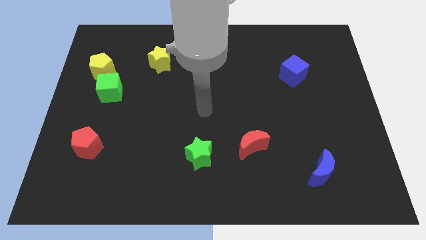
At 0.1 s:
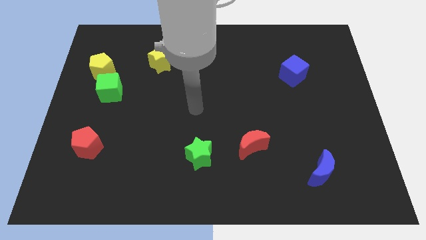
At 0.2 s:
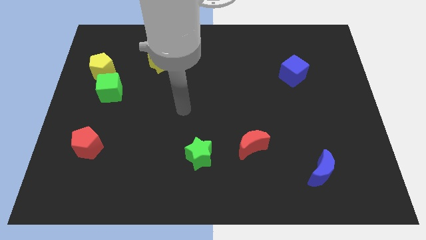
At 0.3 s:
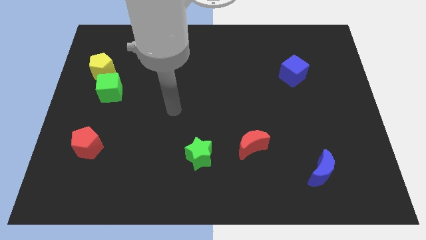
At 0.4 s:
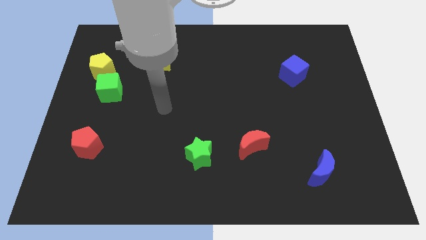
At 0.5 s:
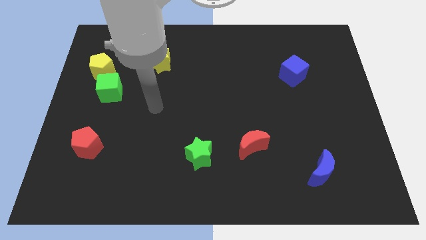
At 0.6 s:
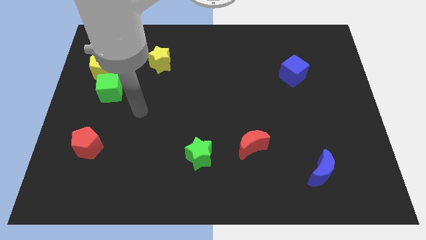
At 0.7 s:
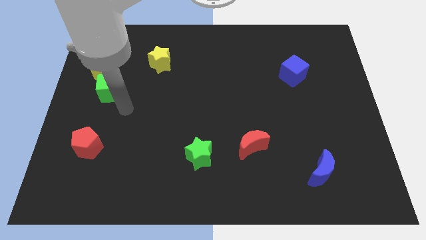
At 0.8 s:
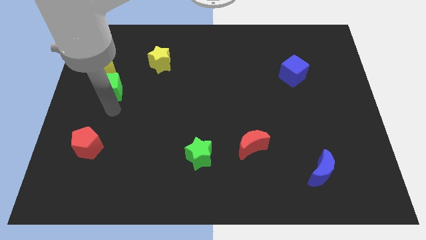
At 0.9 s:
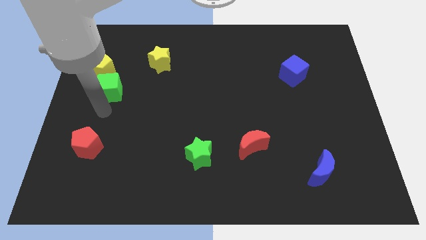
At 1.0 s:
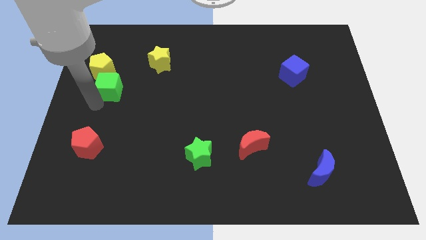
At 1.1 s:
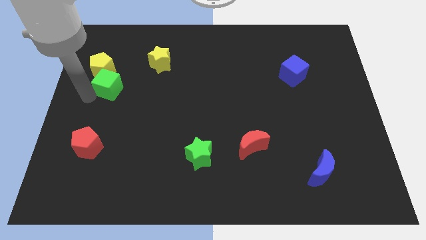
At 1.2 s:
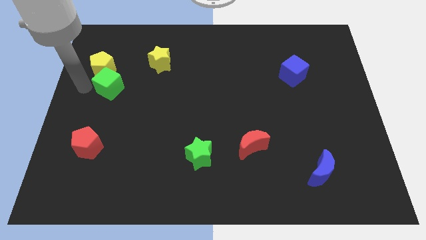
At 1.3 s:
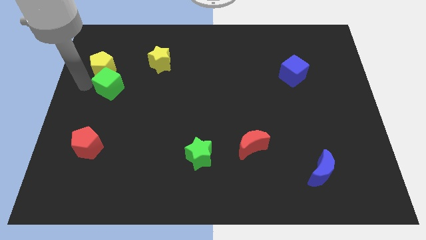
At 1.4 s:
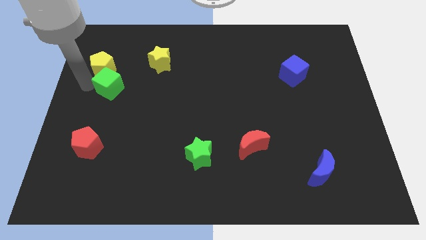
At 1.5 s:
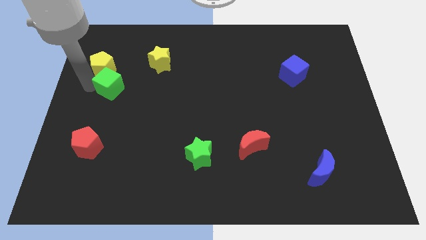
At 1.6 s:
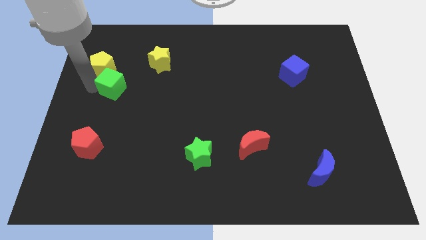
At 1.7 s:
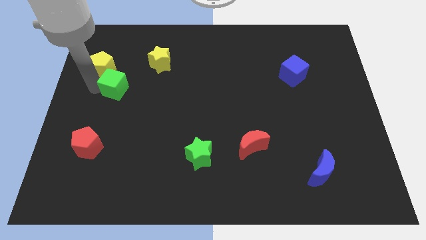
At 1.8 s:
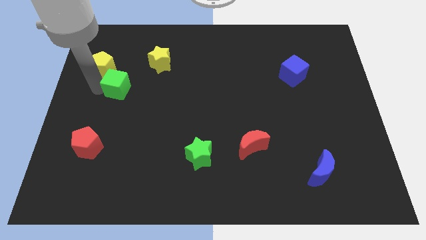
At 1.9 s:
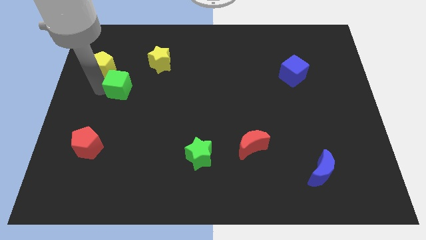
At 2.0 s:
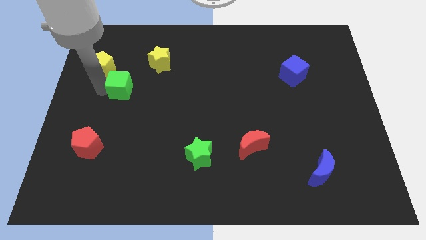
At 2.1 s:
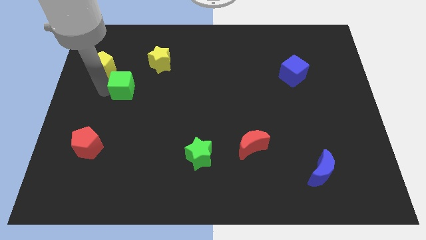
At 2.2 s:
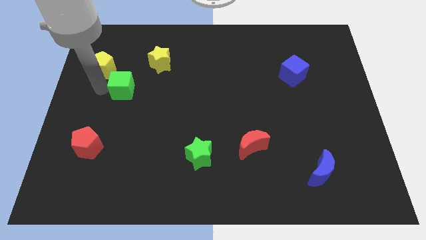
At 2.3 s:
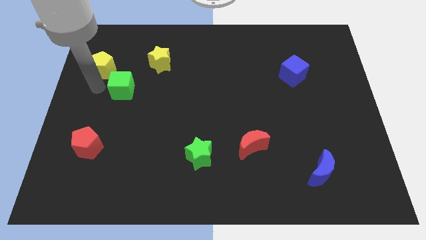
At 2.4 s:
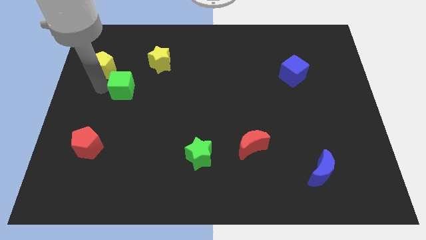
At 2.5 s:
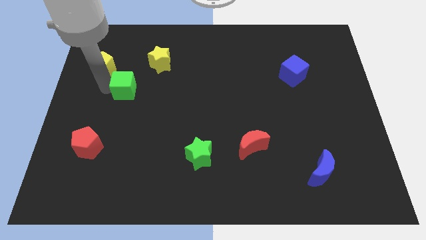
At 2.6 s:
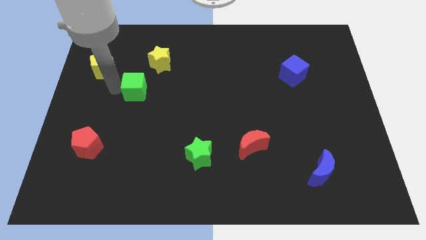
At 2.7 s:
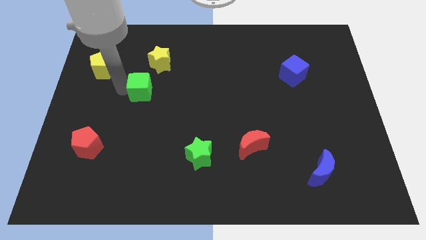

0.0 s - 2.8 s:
push the green cube to the right slightly

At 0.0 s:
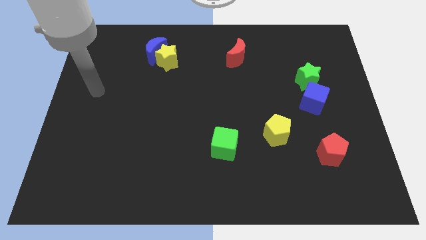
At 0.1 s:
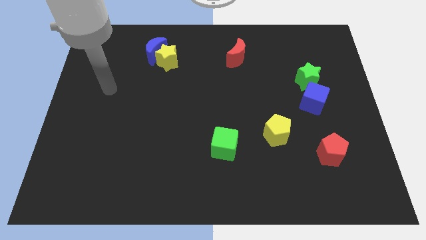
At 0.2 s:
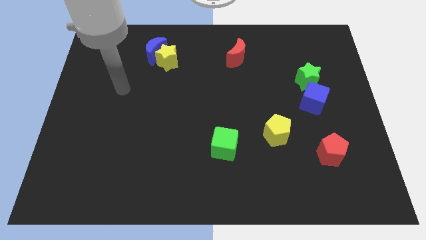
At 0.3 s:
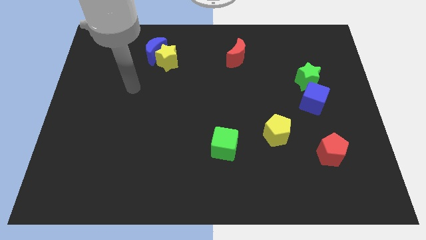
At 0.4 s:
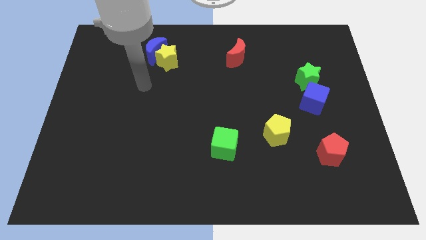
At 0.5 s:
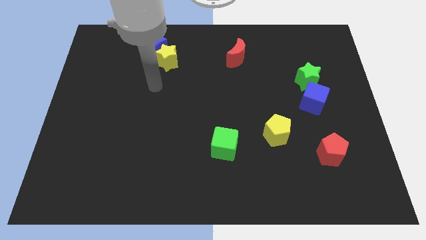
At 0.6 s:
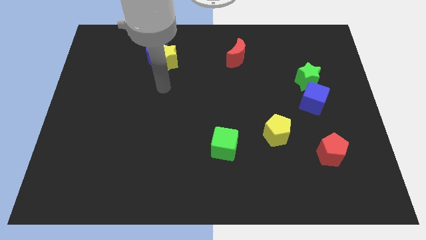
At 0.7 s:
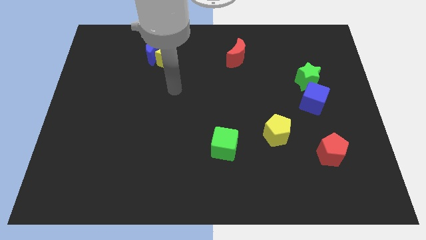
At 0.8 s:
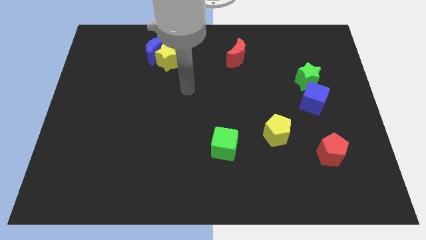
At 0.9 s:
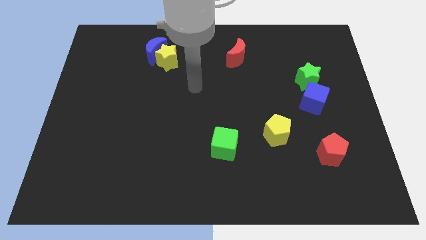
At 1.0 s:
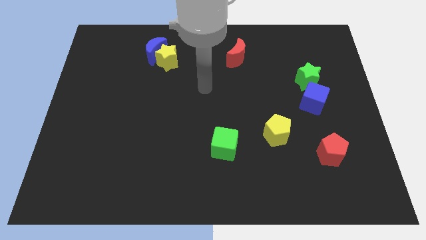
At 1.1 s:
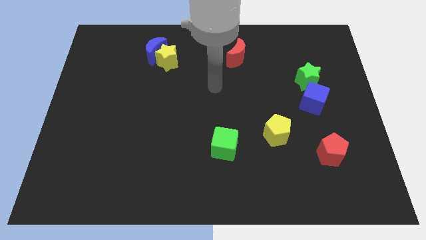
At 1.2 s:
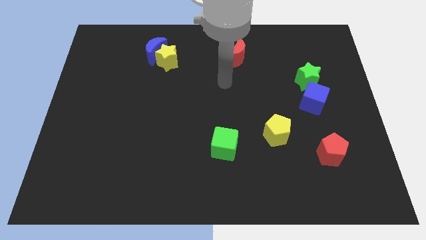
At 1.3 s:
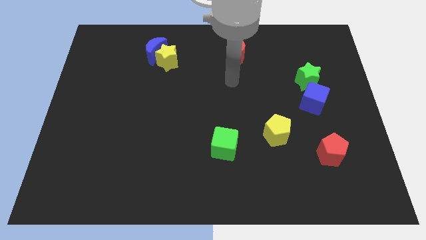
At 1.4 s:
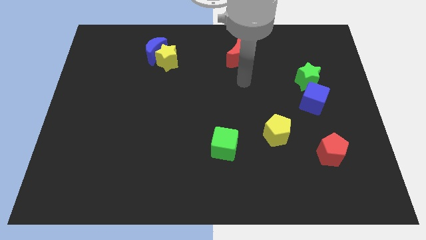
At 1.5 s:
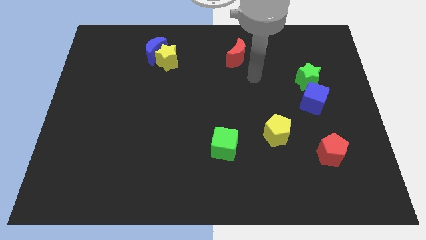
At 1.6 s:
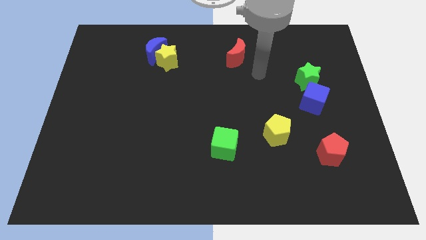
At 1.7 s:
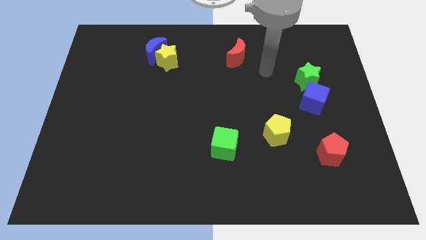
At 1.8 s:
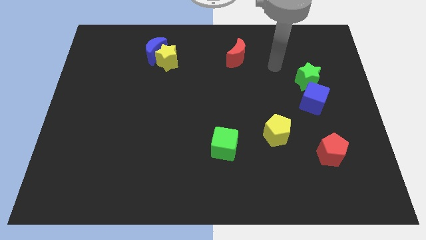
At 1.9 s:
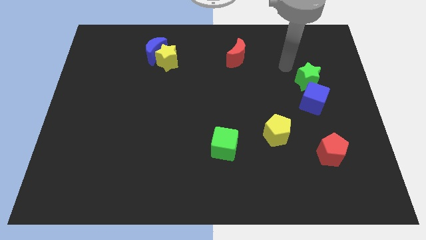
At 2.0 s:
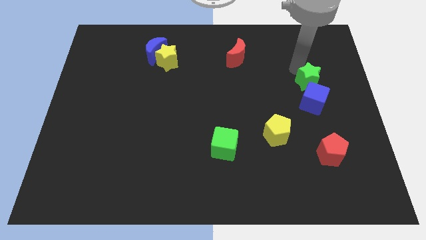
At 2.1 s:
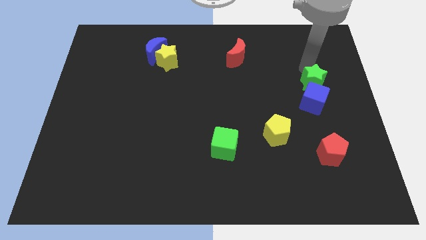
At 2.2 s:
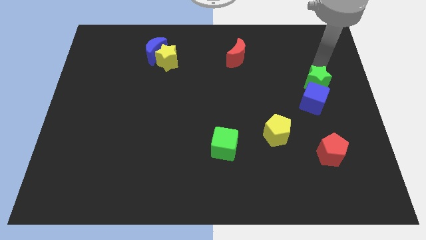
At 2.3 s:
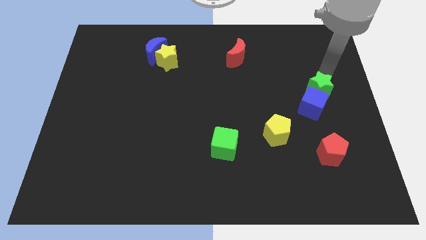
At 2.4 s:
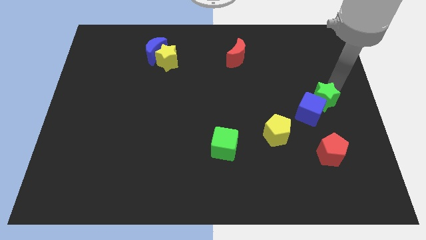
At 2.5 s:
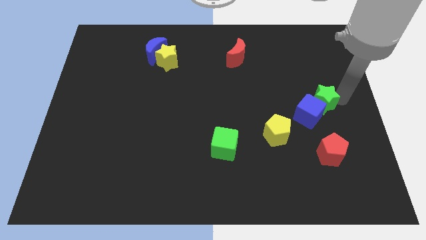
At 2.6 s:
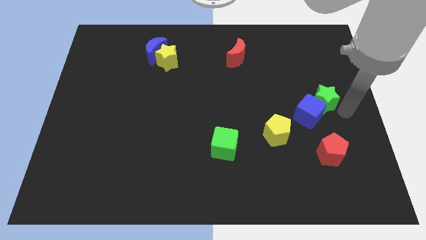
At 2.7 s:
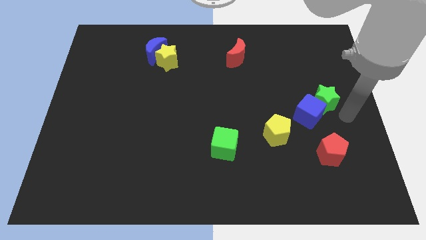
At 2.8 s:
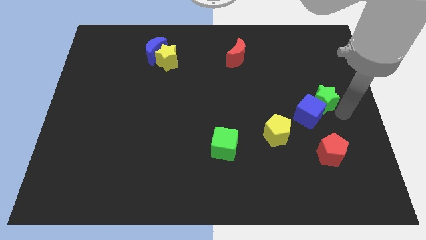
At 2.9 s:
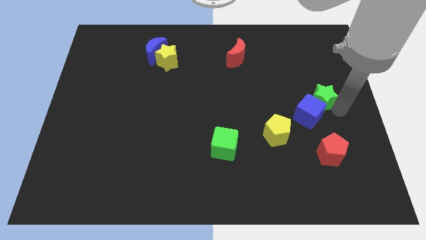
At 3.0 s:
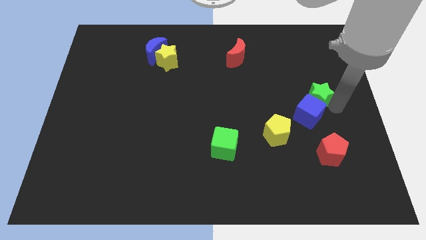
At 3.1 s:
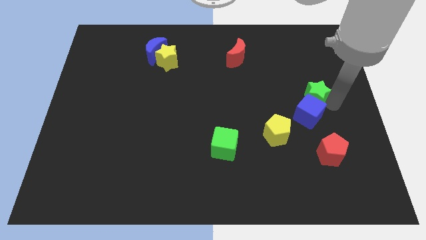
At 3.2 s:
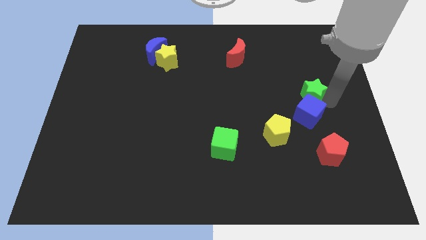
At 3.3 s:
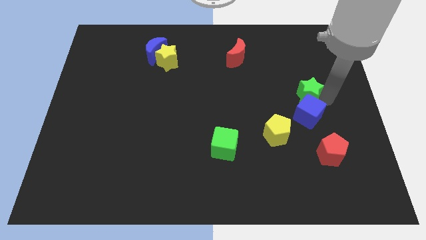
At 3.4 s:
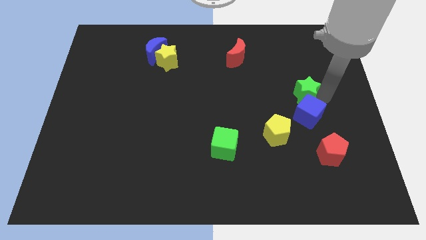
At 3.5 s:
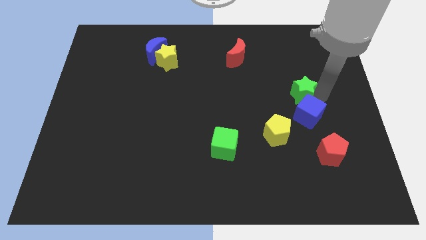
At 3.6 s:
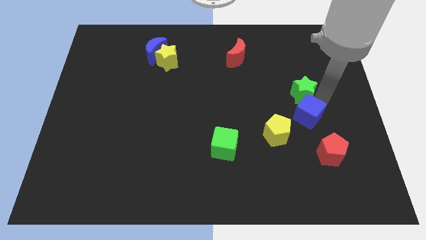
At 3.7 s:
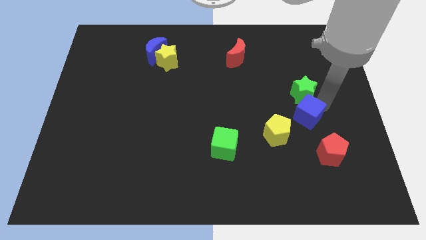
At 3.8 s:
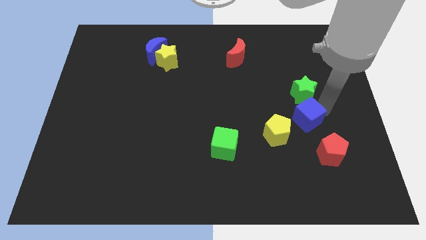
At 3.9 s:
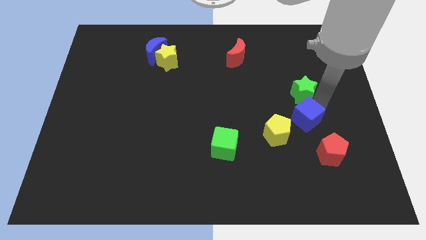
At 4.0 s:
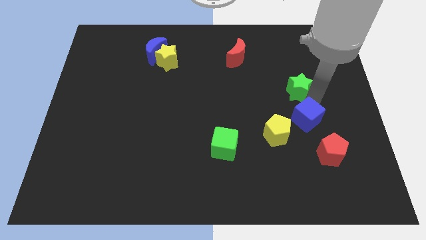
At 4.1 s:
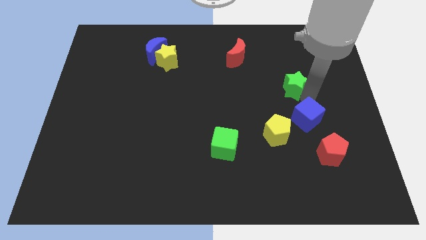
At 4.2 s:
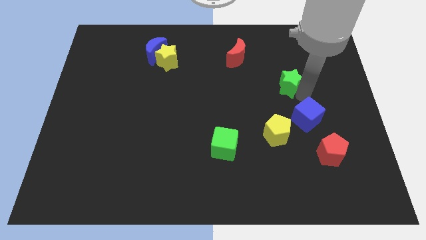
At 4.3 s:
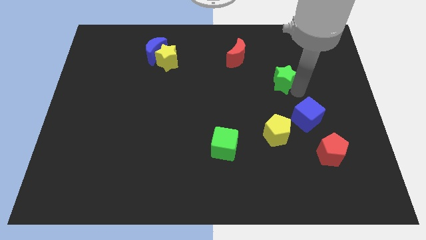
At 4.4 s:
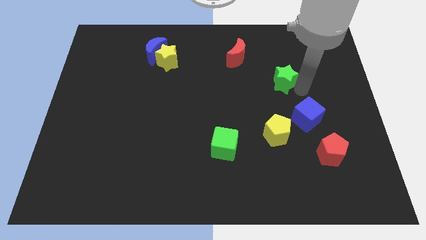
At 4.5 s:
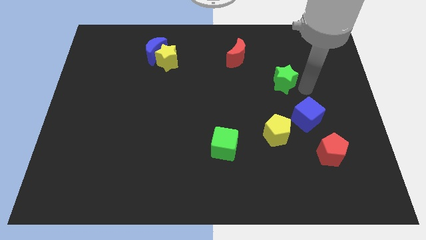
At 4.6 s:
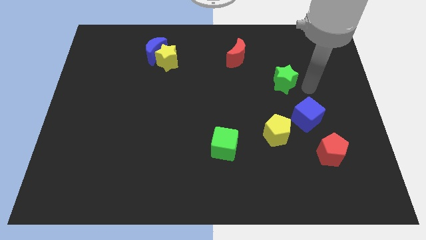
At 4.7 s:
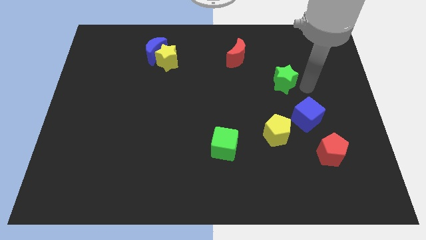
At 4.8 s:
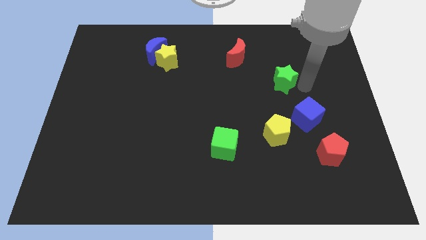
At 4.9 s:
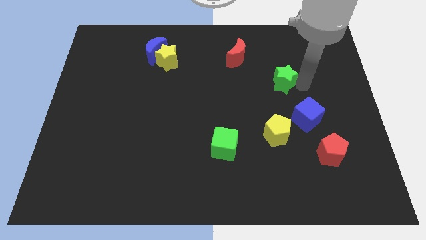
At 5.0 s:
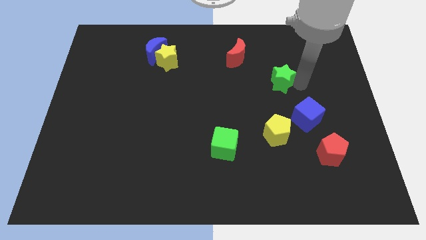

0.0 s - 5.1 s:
push the green star to the left a little

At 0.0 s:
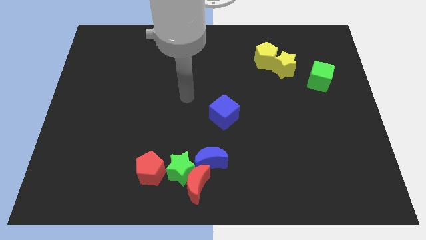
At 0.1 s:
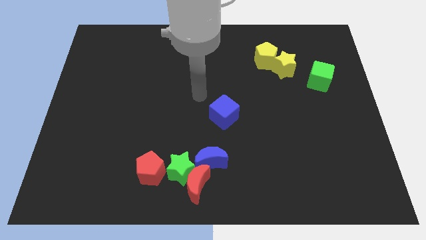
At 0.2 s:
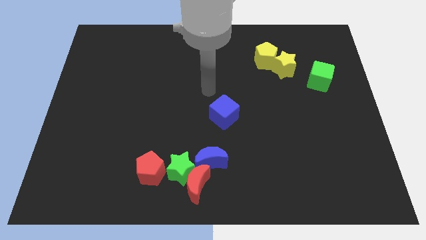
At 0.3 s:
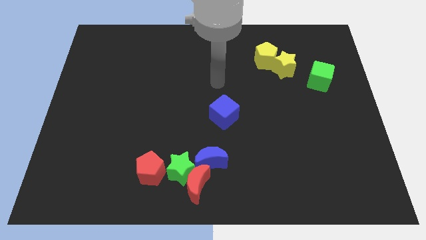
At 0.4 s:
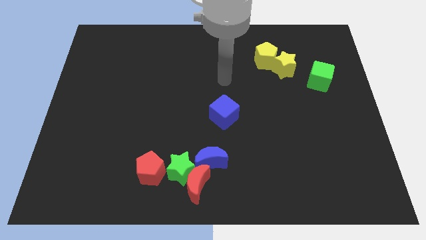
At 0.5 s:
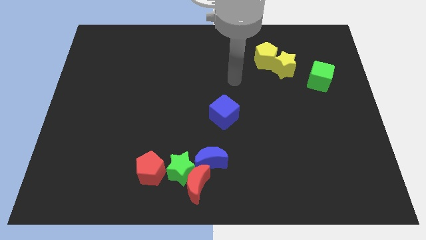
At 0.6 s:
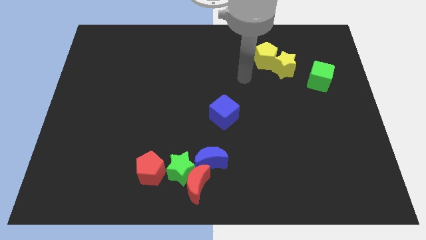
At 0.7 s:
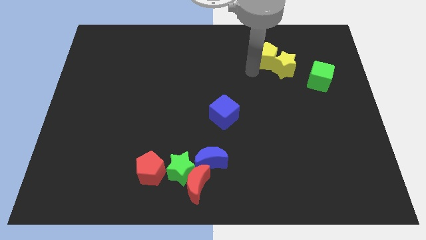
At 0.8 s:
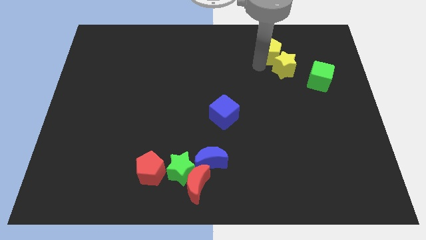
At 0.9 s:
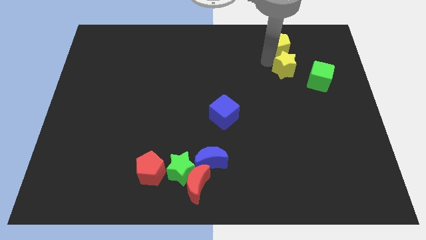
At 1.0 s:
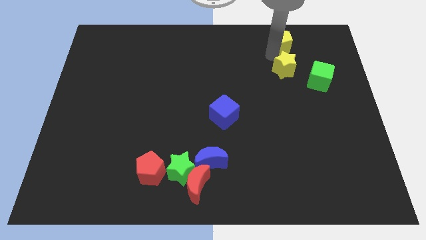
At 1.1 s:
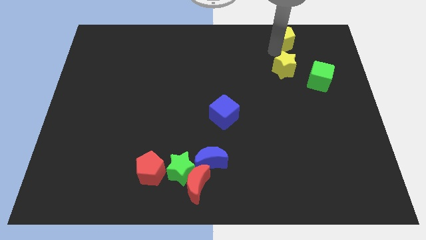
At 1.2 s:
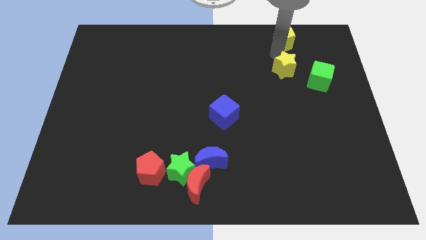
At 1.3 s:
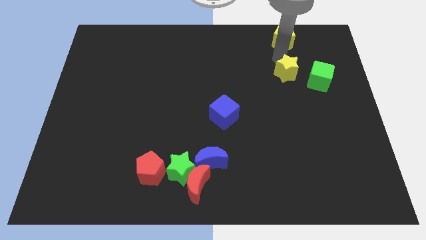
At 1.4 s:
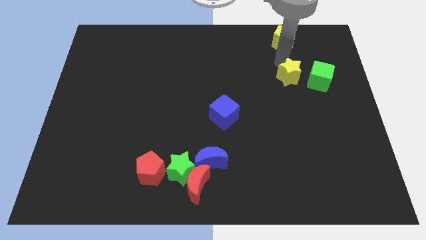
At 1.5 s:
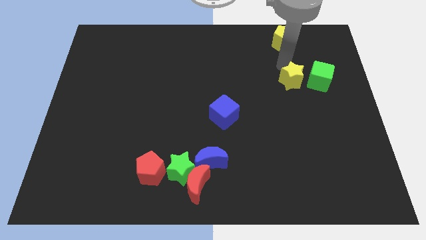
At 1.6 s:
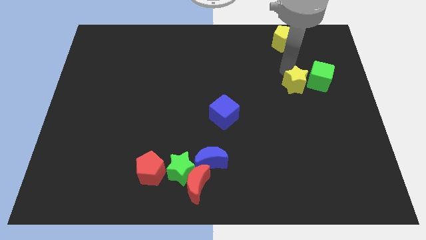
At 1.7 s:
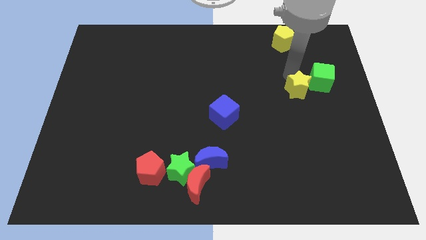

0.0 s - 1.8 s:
slightly push the yellow star down
